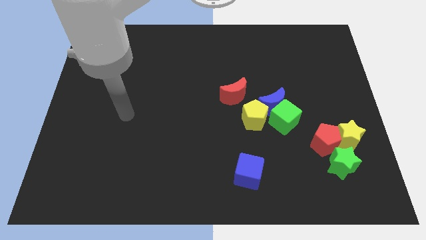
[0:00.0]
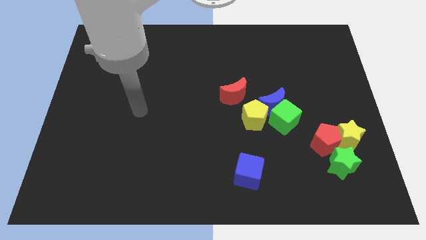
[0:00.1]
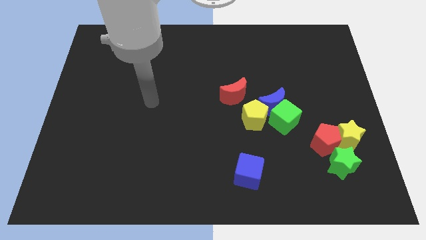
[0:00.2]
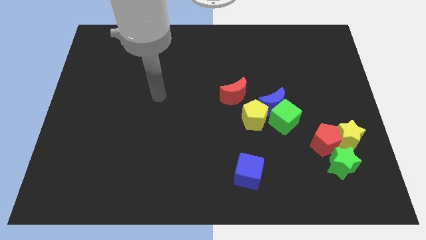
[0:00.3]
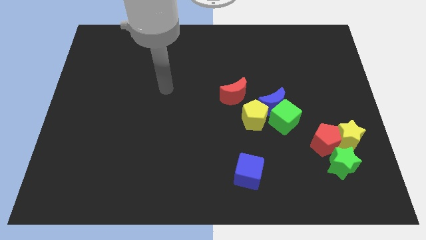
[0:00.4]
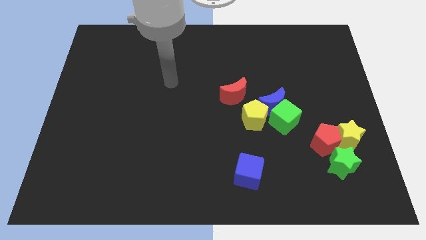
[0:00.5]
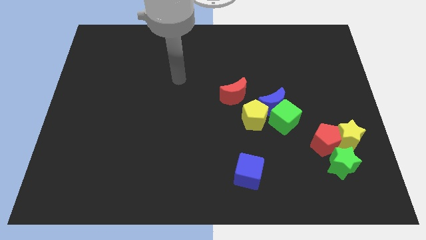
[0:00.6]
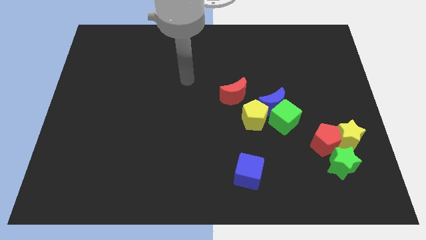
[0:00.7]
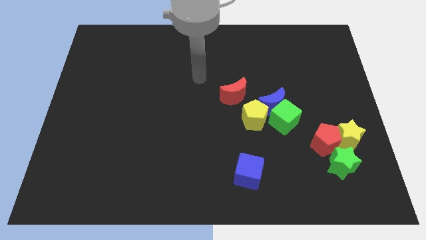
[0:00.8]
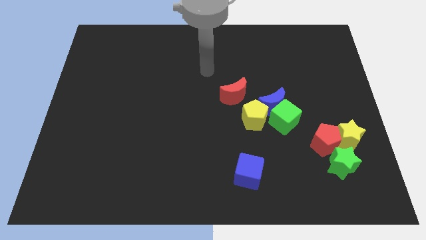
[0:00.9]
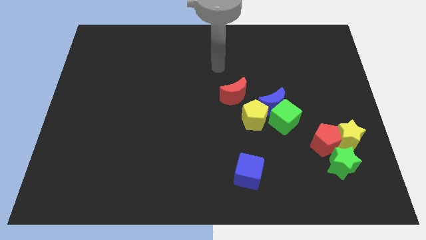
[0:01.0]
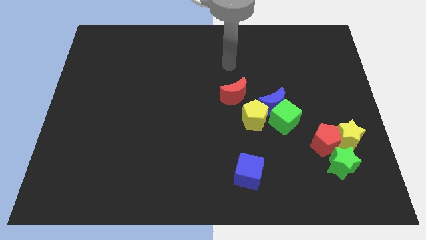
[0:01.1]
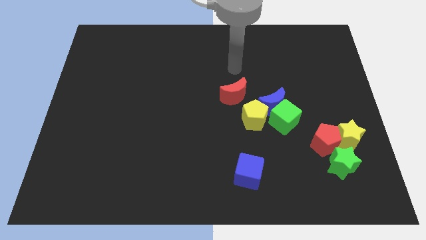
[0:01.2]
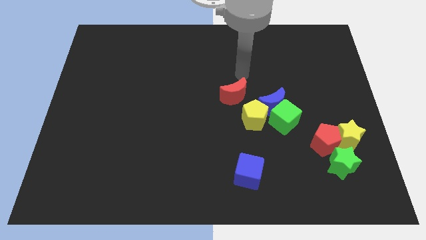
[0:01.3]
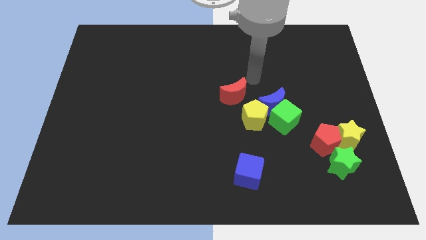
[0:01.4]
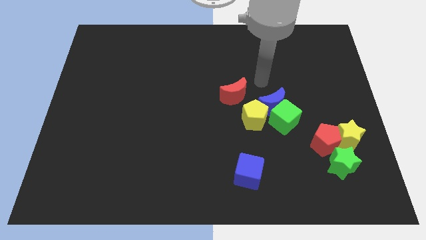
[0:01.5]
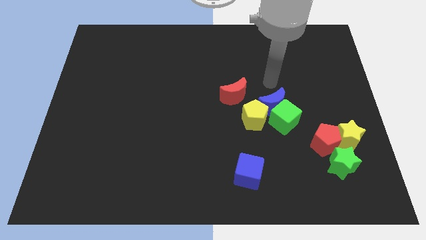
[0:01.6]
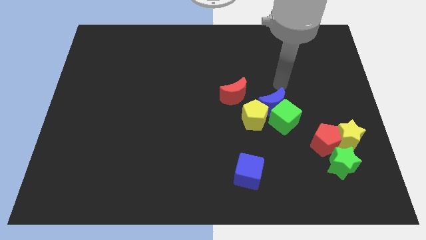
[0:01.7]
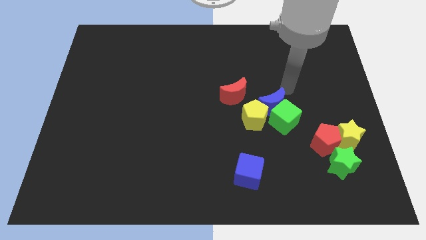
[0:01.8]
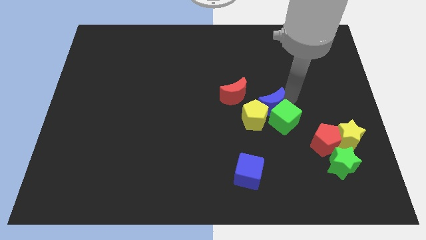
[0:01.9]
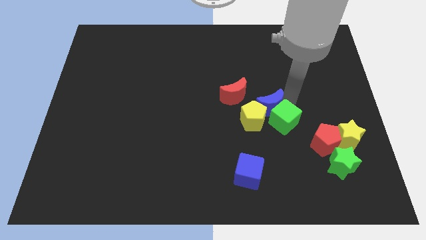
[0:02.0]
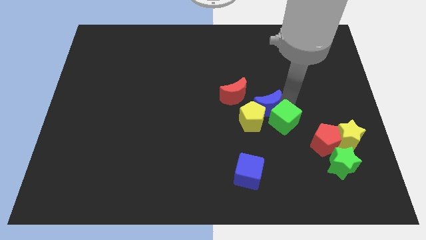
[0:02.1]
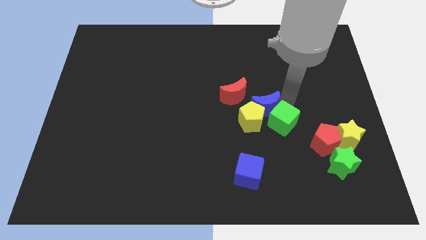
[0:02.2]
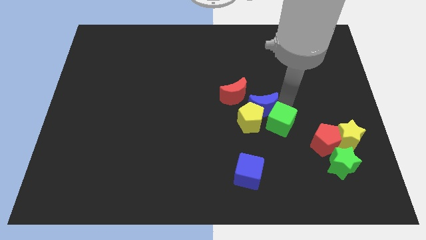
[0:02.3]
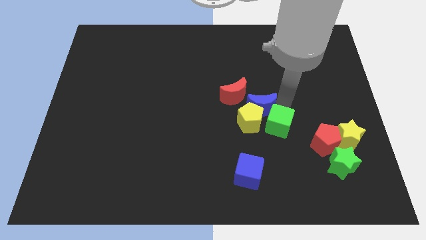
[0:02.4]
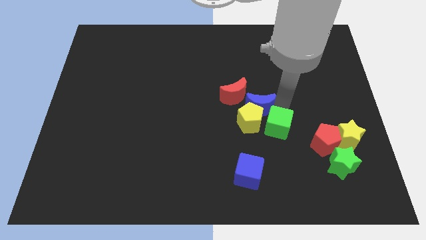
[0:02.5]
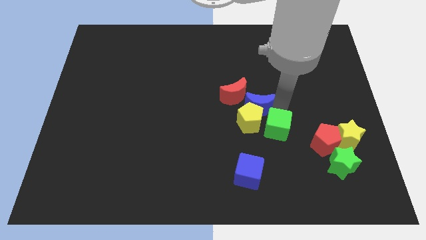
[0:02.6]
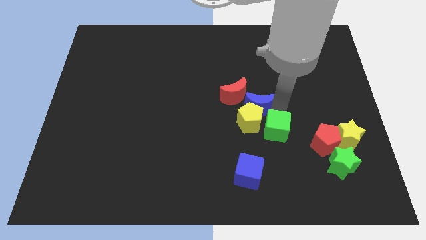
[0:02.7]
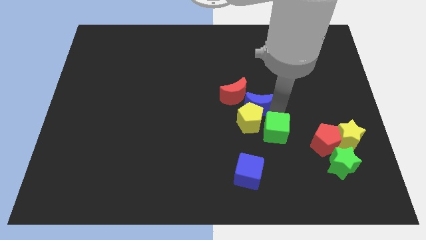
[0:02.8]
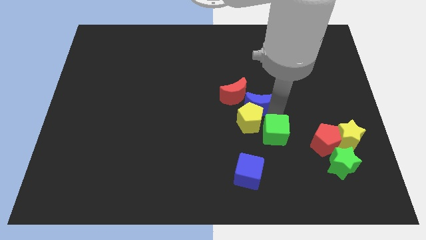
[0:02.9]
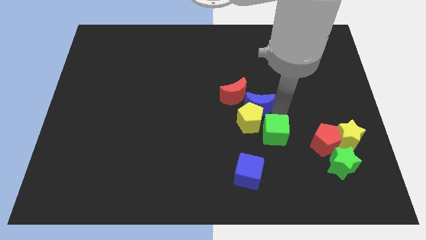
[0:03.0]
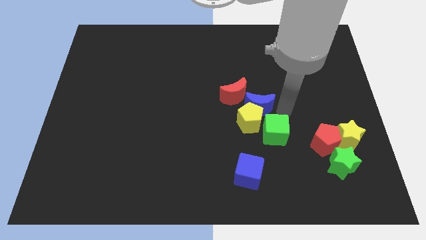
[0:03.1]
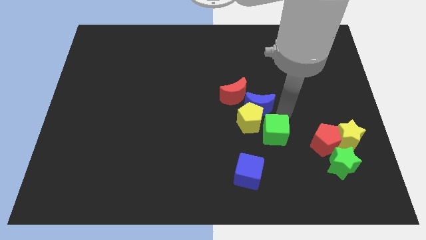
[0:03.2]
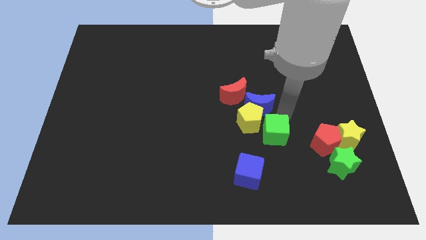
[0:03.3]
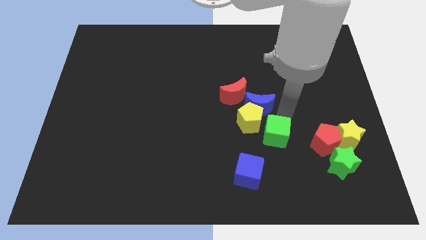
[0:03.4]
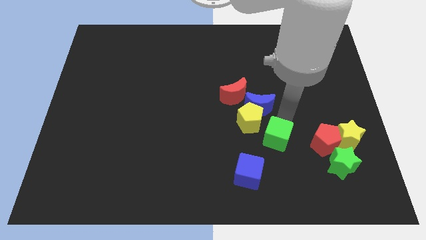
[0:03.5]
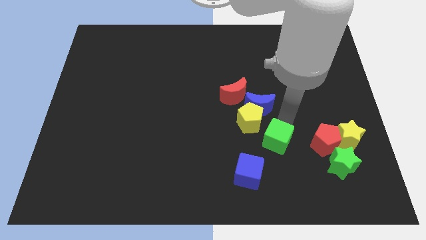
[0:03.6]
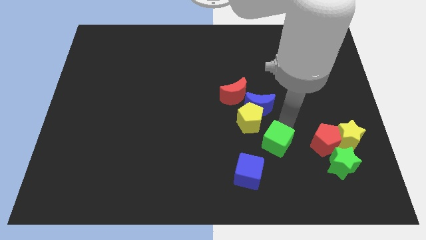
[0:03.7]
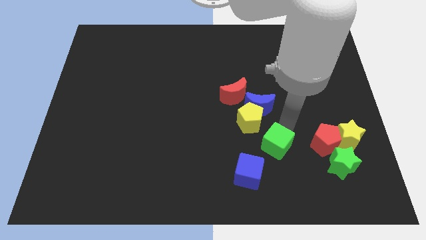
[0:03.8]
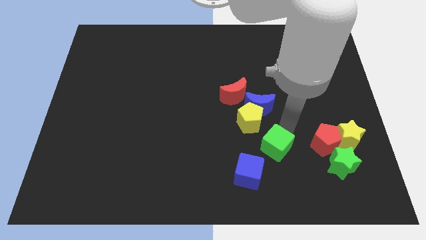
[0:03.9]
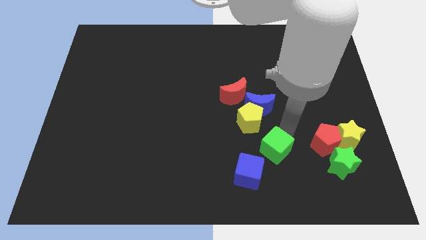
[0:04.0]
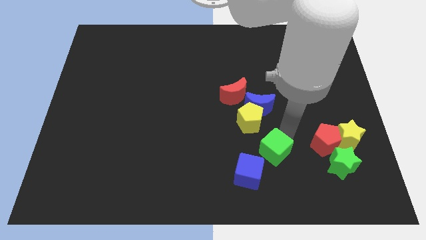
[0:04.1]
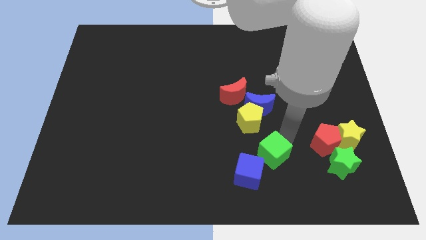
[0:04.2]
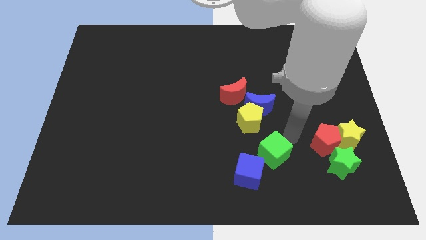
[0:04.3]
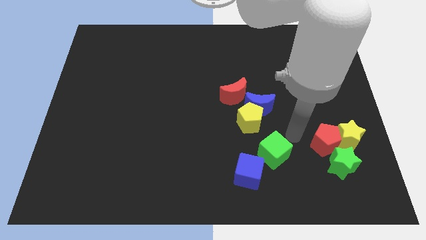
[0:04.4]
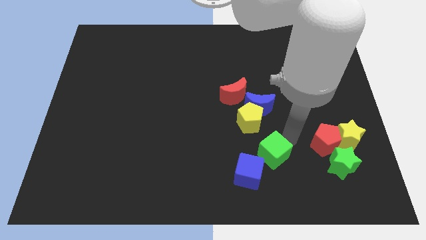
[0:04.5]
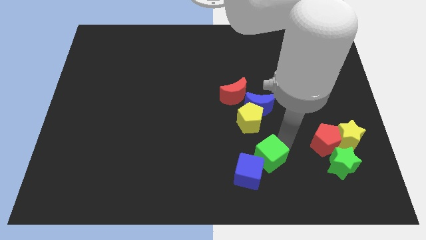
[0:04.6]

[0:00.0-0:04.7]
slide the green cube towards the blue cube

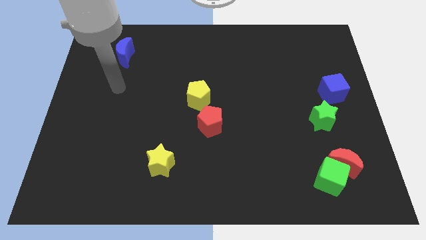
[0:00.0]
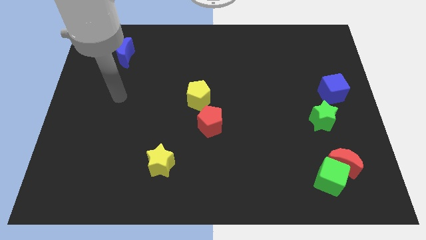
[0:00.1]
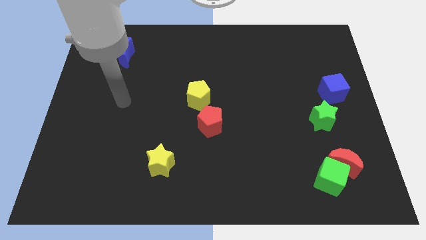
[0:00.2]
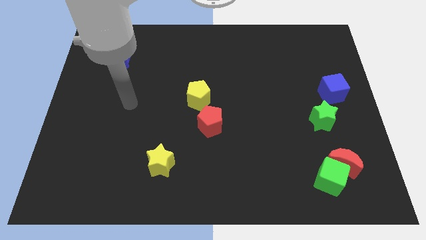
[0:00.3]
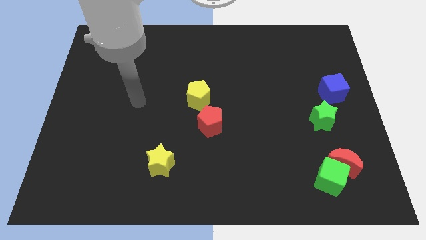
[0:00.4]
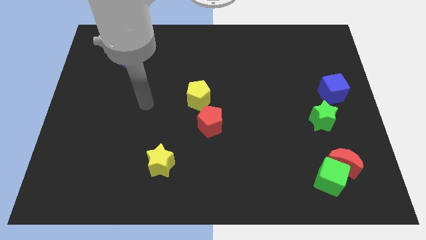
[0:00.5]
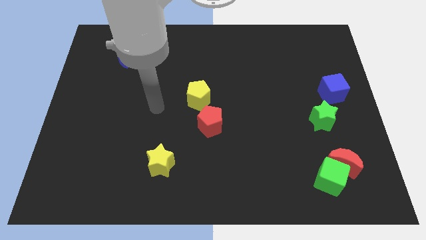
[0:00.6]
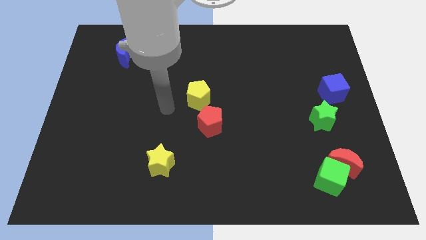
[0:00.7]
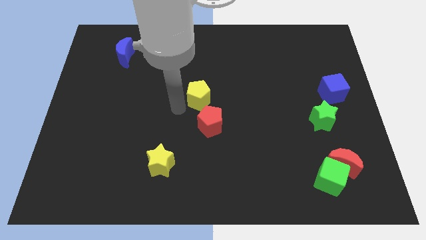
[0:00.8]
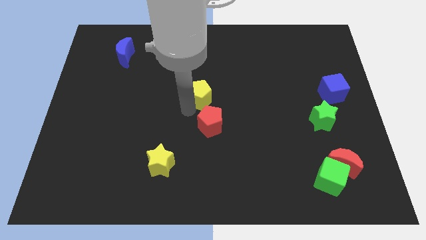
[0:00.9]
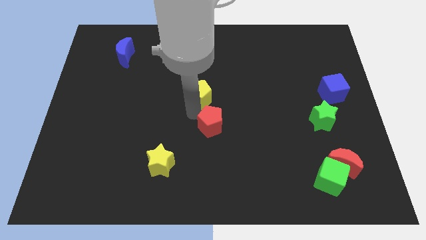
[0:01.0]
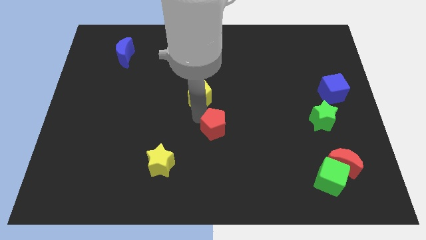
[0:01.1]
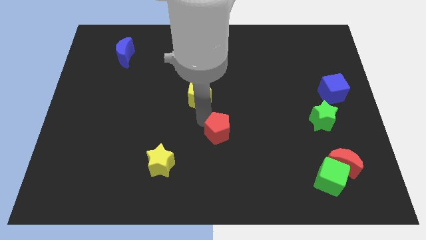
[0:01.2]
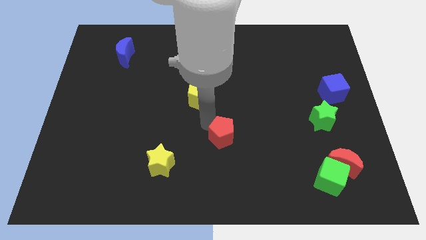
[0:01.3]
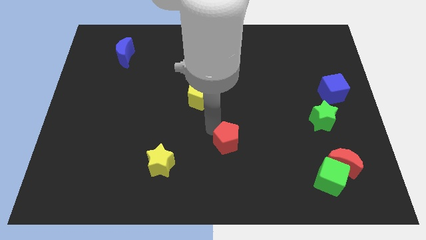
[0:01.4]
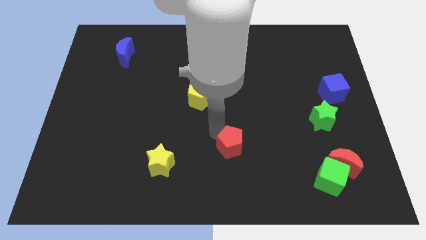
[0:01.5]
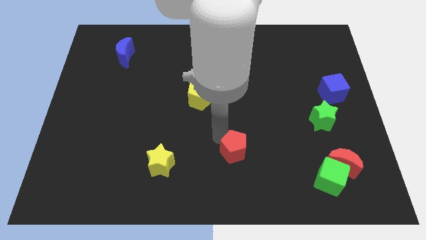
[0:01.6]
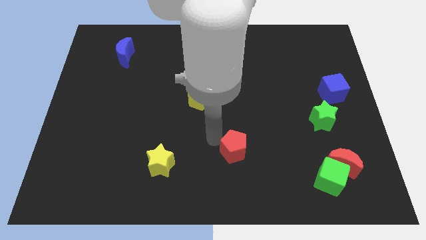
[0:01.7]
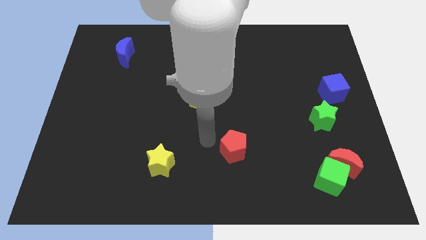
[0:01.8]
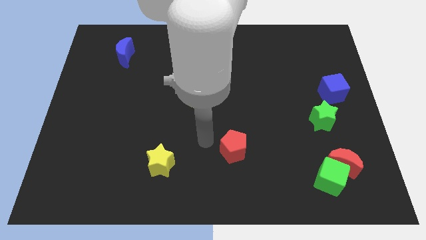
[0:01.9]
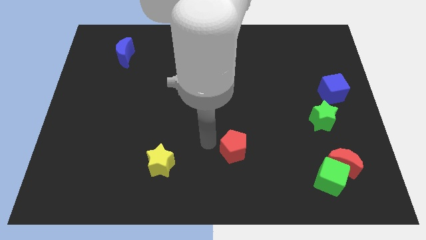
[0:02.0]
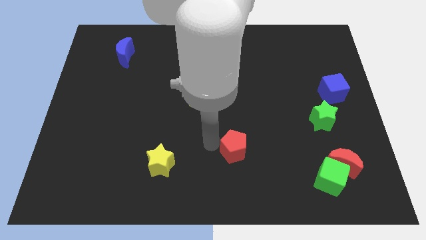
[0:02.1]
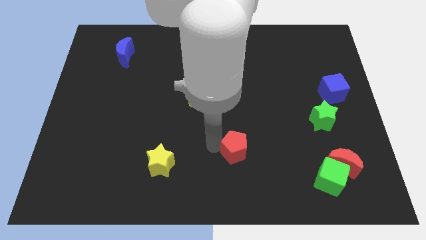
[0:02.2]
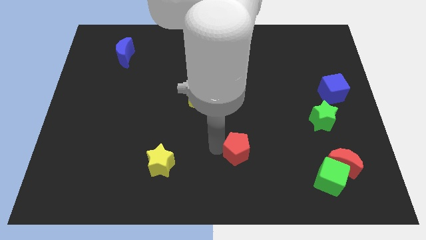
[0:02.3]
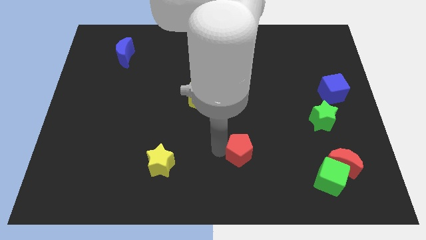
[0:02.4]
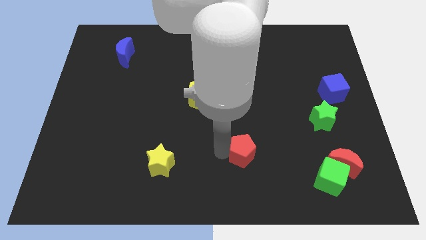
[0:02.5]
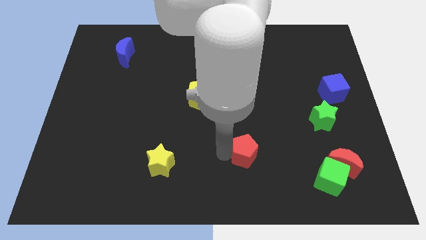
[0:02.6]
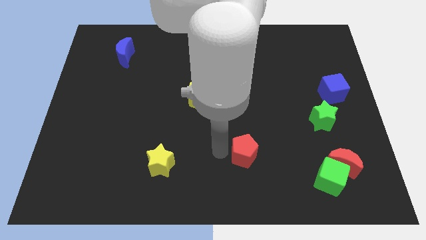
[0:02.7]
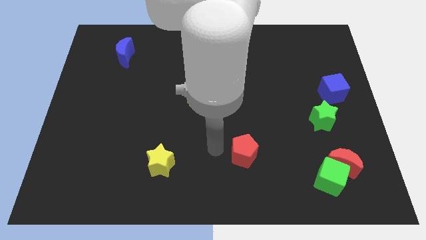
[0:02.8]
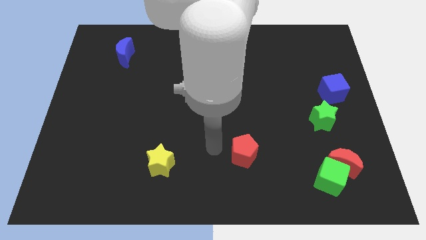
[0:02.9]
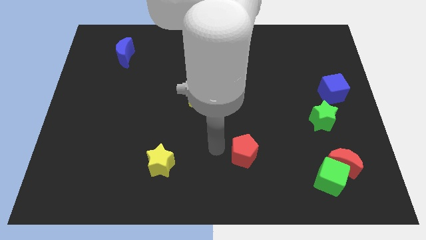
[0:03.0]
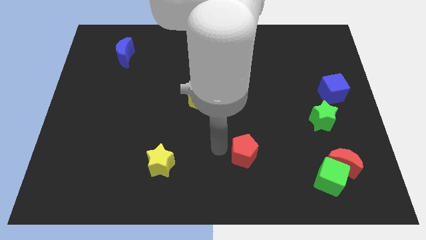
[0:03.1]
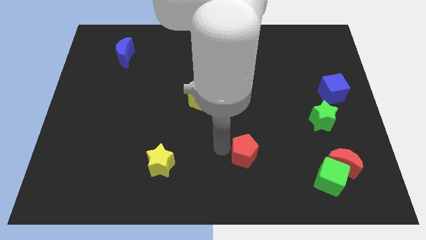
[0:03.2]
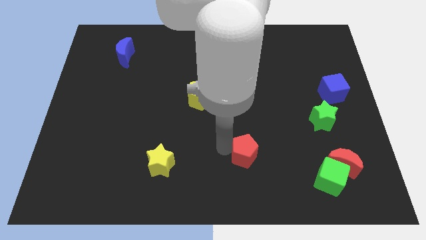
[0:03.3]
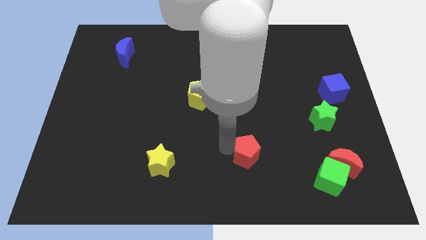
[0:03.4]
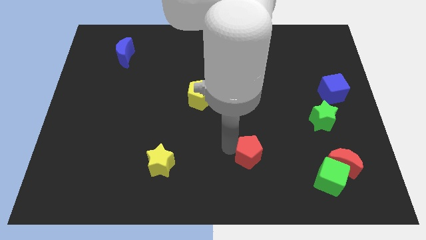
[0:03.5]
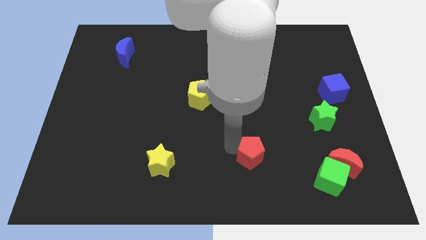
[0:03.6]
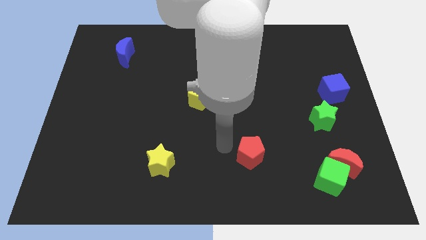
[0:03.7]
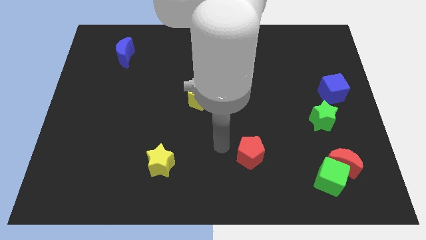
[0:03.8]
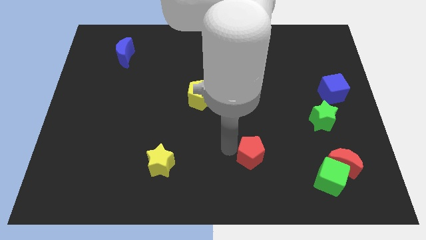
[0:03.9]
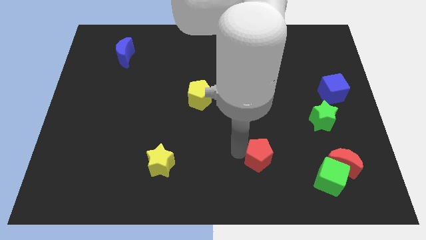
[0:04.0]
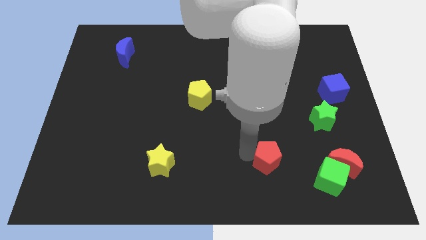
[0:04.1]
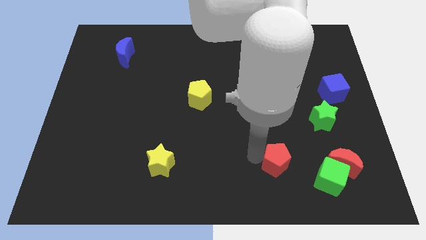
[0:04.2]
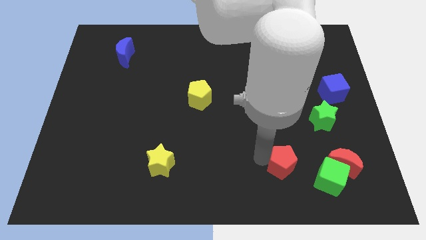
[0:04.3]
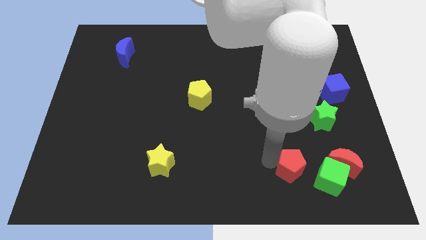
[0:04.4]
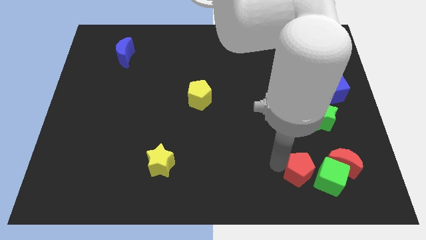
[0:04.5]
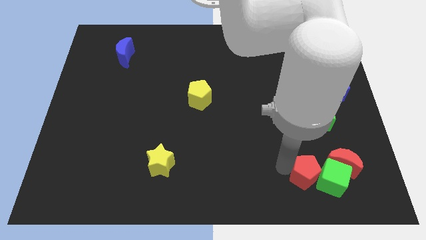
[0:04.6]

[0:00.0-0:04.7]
put the red pentagon towards the green cube
